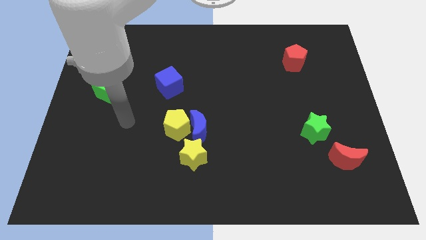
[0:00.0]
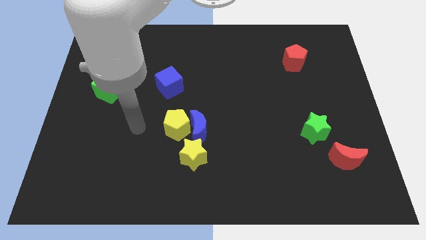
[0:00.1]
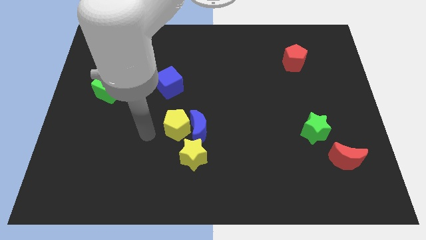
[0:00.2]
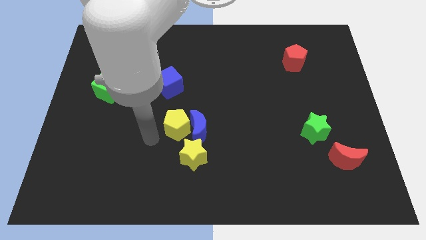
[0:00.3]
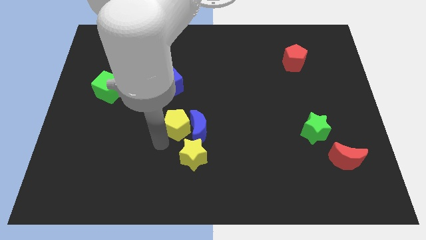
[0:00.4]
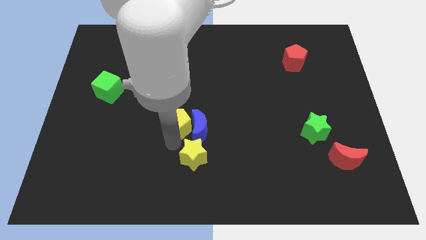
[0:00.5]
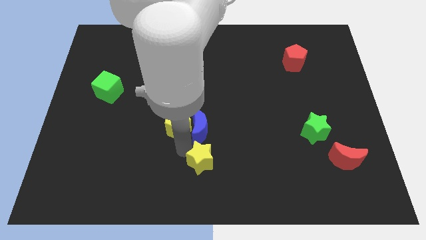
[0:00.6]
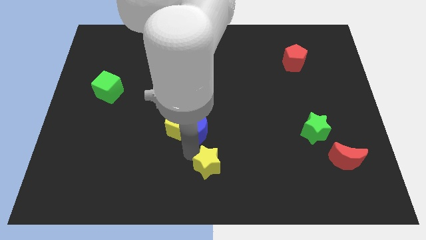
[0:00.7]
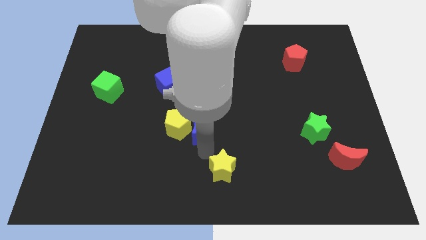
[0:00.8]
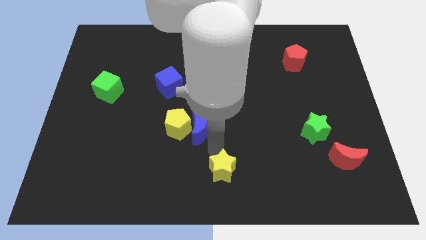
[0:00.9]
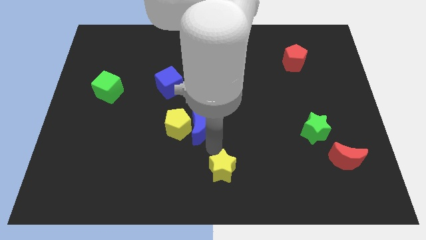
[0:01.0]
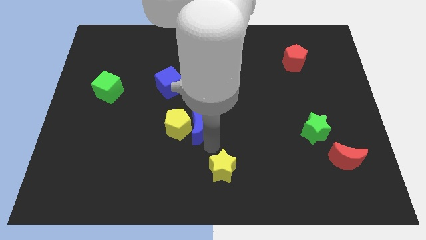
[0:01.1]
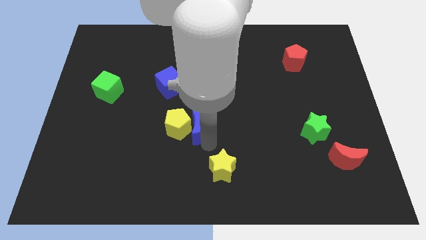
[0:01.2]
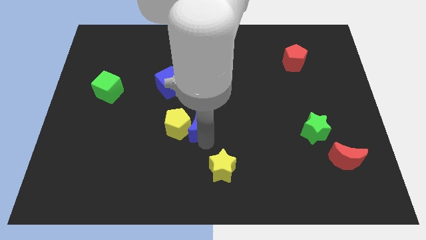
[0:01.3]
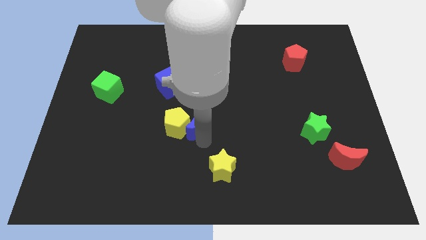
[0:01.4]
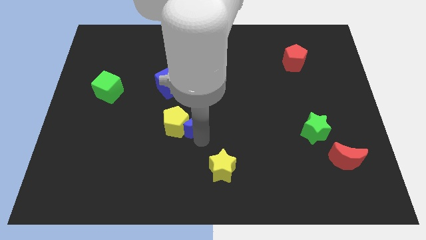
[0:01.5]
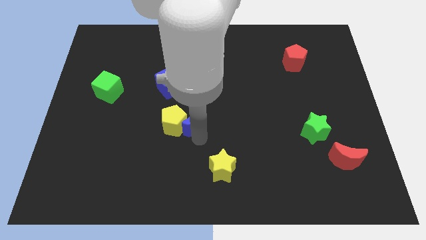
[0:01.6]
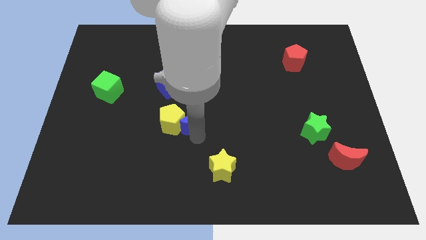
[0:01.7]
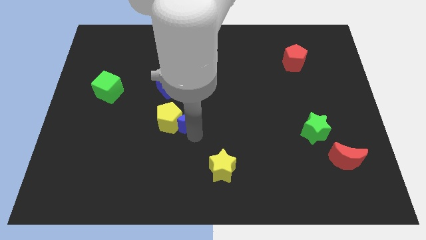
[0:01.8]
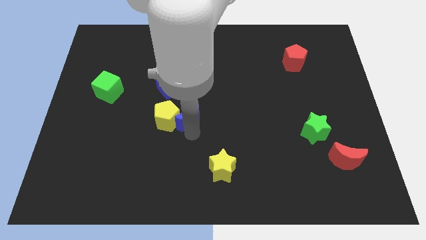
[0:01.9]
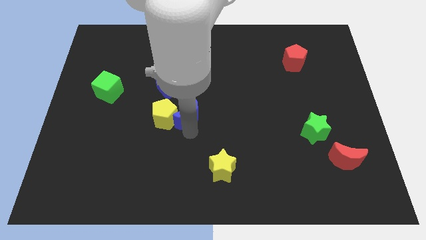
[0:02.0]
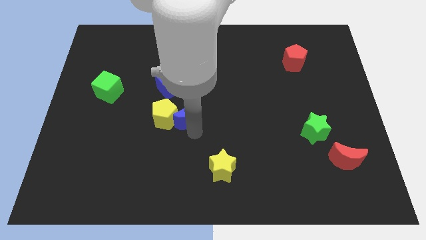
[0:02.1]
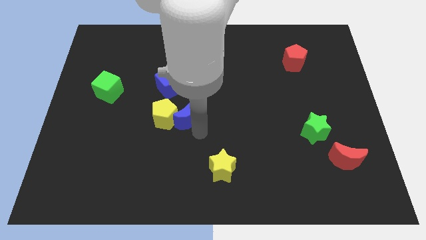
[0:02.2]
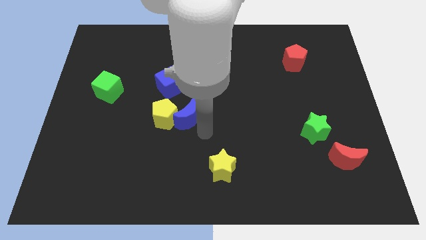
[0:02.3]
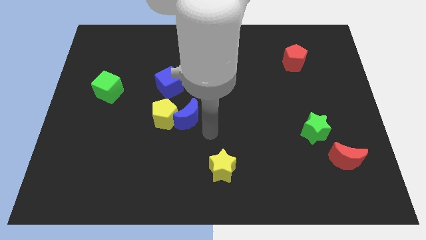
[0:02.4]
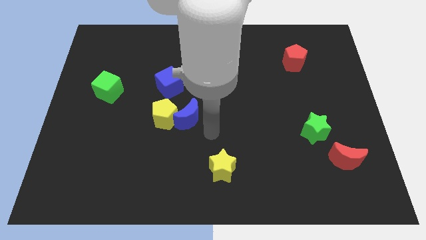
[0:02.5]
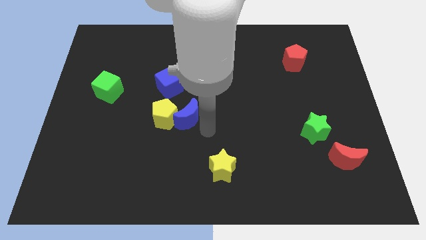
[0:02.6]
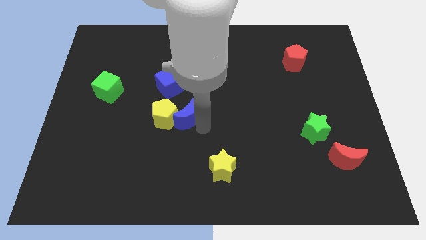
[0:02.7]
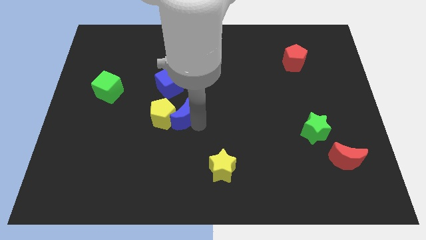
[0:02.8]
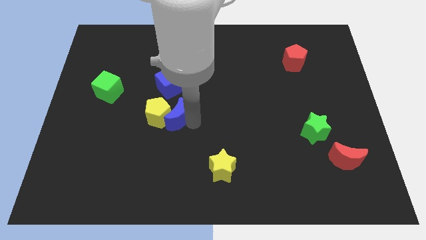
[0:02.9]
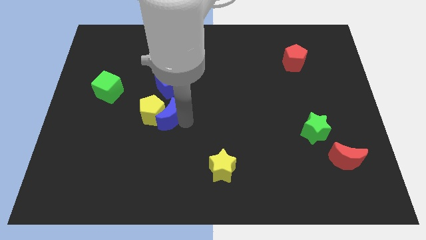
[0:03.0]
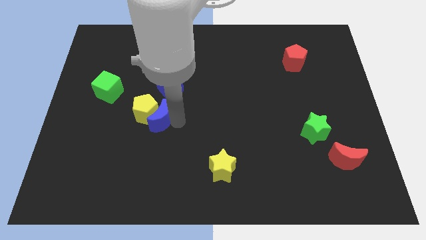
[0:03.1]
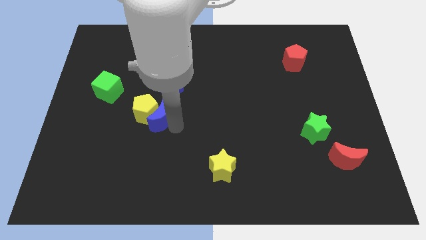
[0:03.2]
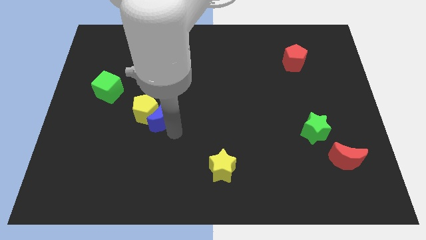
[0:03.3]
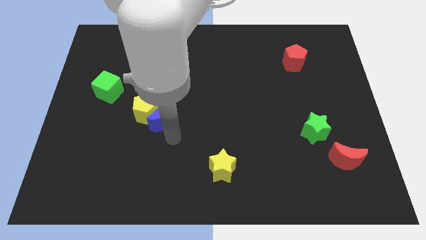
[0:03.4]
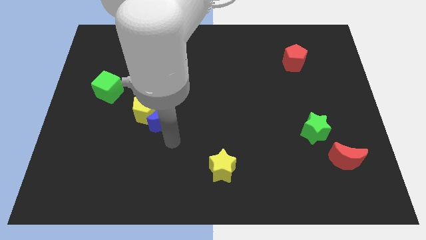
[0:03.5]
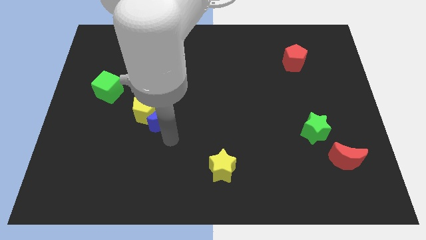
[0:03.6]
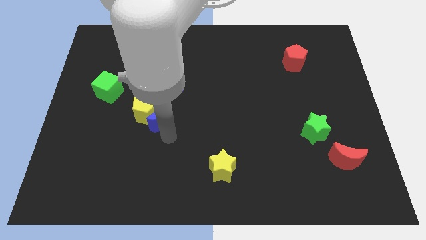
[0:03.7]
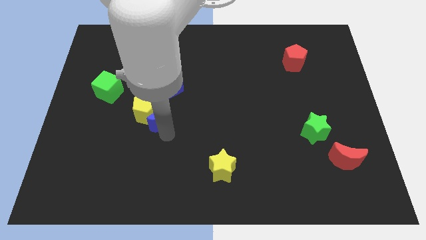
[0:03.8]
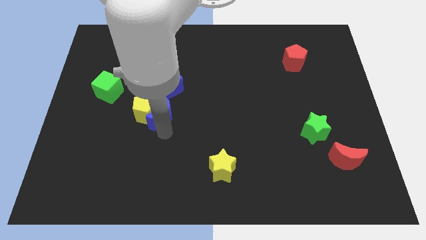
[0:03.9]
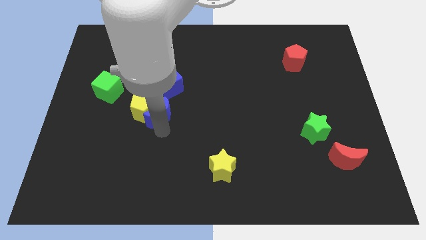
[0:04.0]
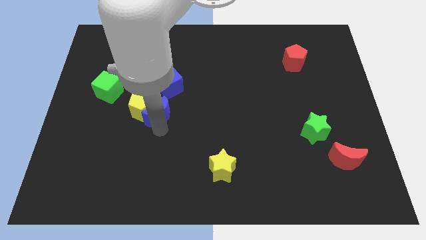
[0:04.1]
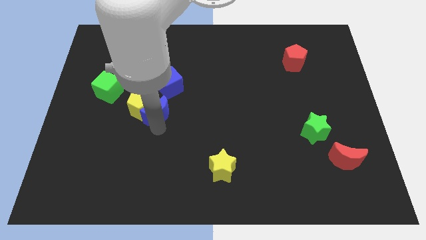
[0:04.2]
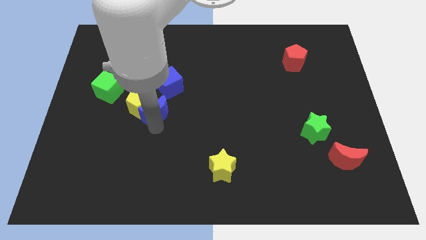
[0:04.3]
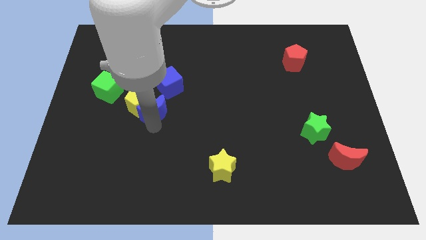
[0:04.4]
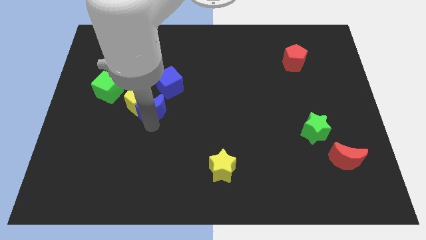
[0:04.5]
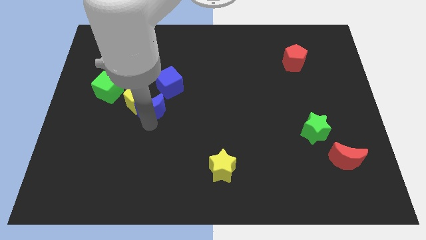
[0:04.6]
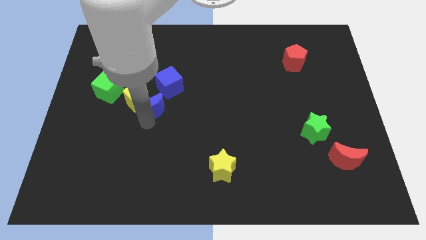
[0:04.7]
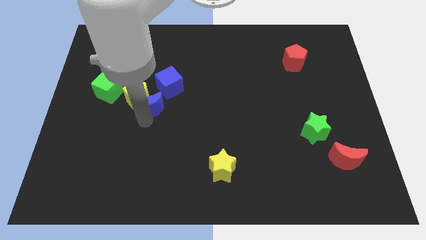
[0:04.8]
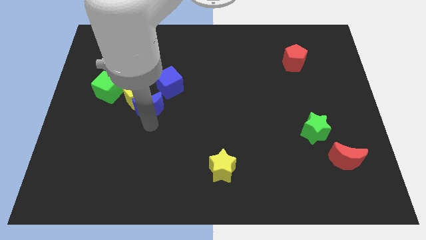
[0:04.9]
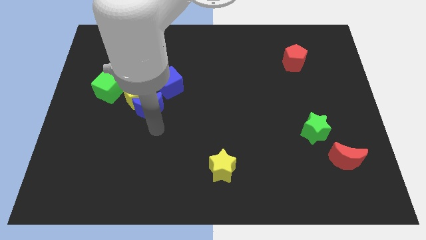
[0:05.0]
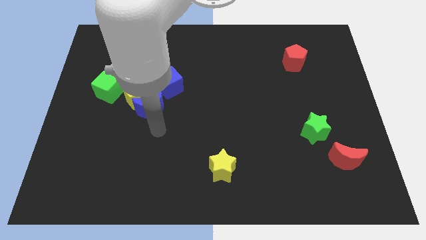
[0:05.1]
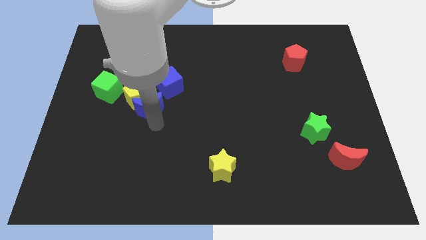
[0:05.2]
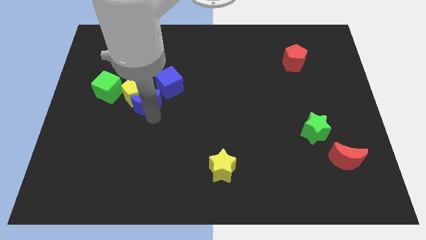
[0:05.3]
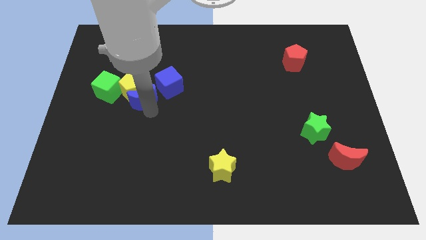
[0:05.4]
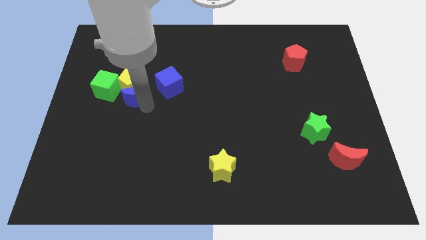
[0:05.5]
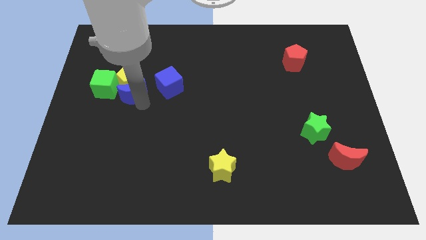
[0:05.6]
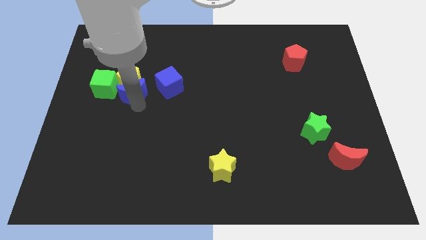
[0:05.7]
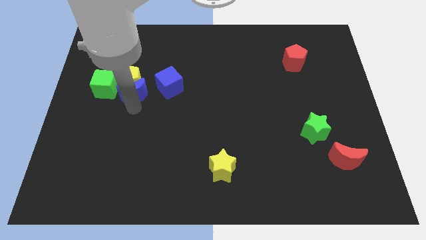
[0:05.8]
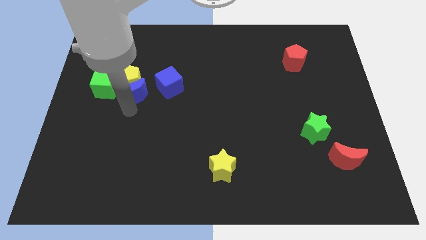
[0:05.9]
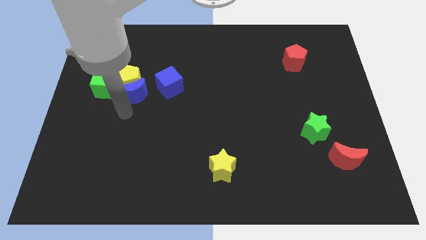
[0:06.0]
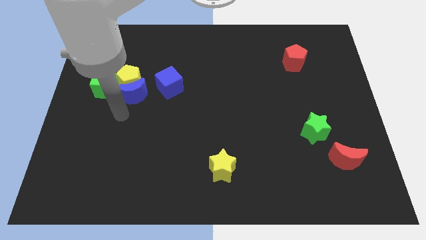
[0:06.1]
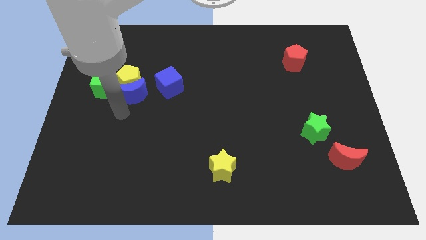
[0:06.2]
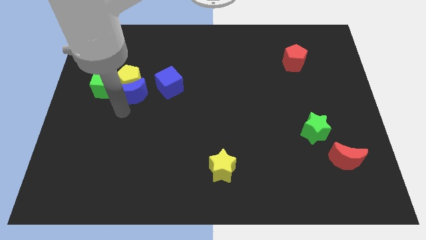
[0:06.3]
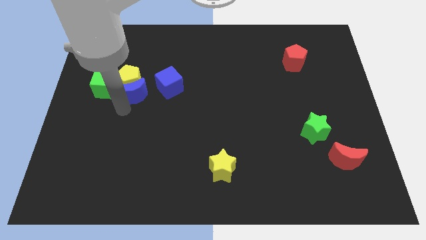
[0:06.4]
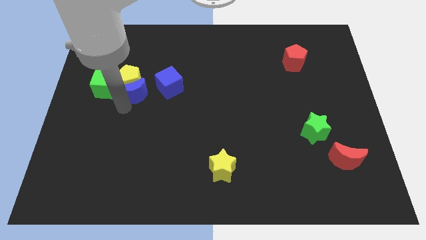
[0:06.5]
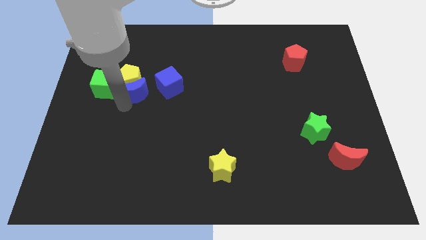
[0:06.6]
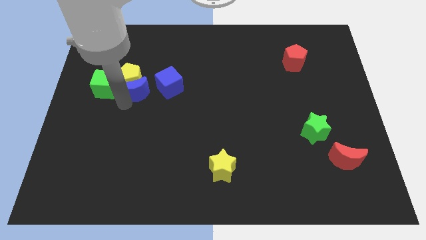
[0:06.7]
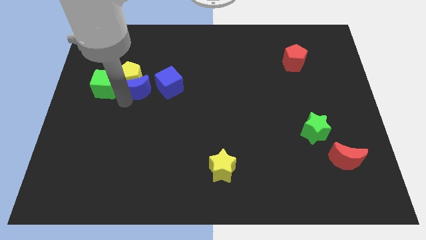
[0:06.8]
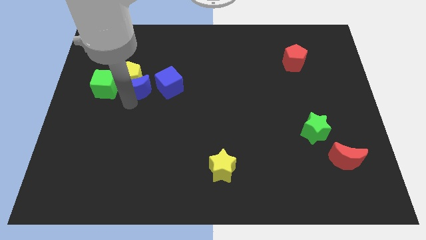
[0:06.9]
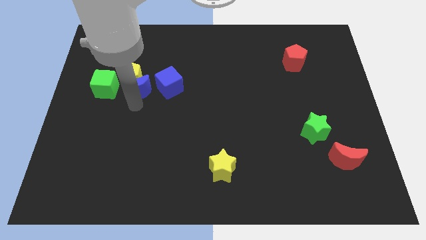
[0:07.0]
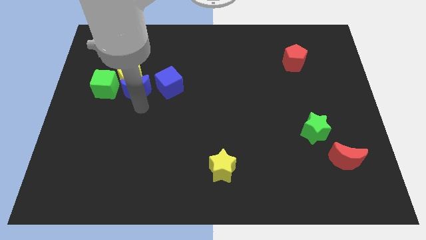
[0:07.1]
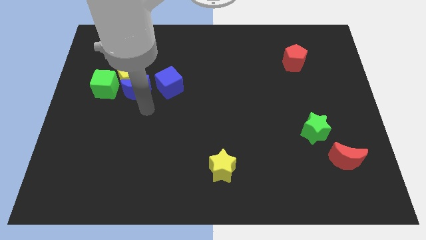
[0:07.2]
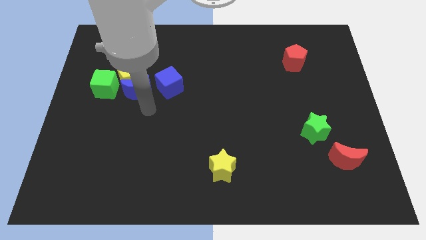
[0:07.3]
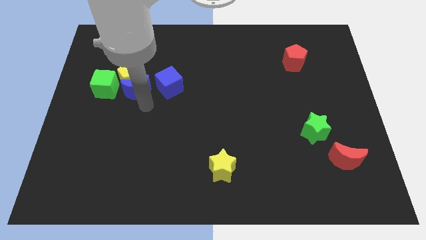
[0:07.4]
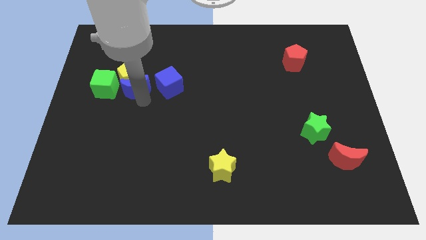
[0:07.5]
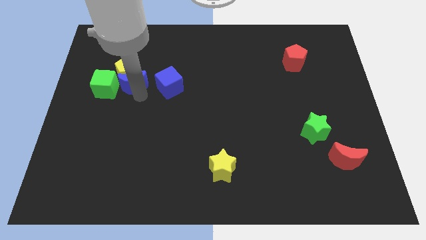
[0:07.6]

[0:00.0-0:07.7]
move the blue moon upwards and to the left diagonally
